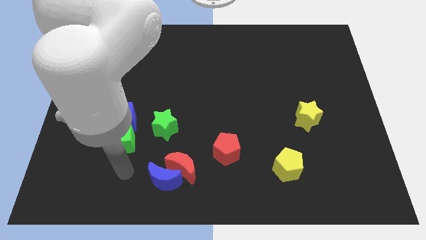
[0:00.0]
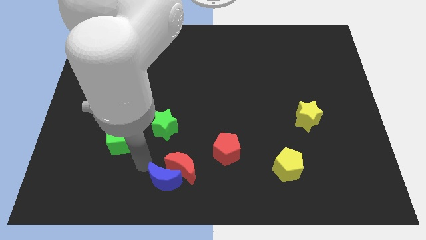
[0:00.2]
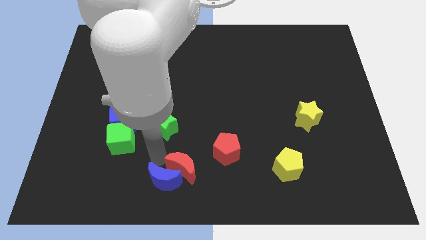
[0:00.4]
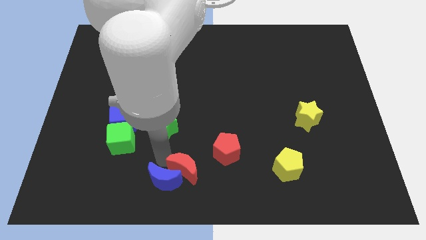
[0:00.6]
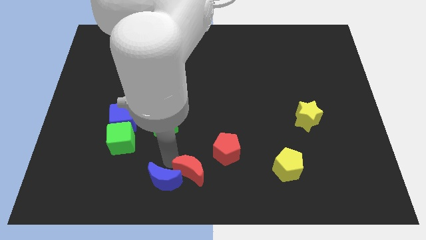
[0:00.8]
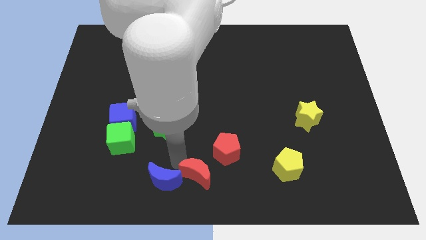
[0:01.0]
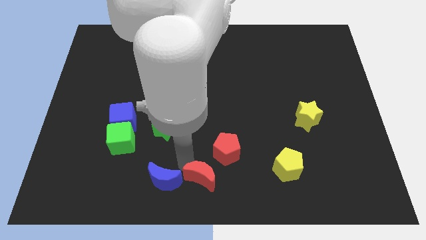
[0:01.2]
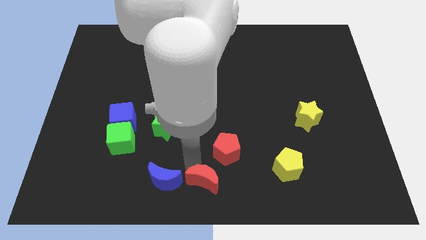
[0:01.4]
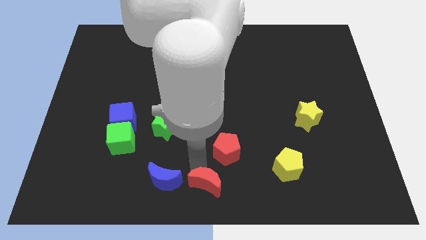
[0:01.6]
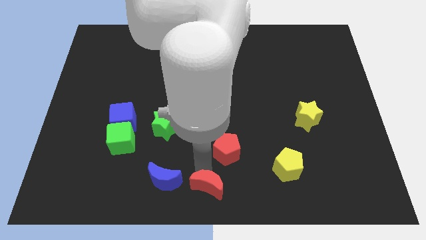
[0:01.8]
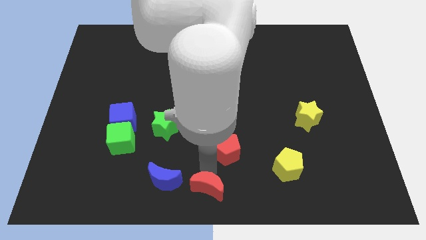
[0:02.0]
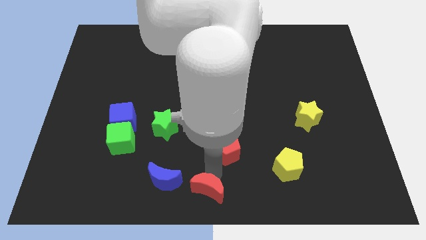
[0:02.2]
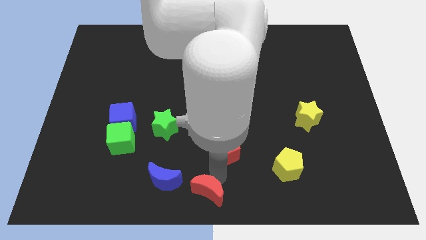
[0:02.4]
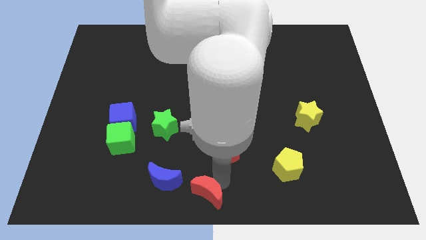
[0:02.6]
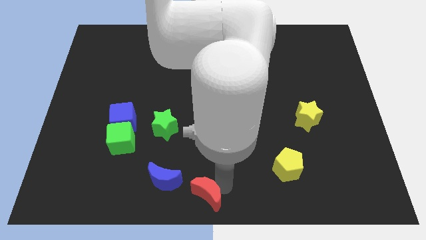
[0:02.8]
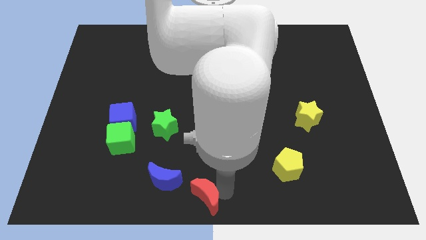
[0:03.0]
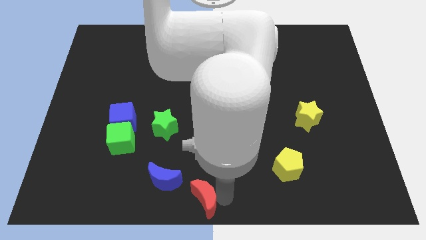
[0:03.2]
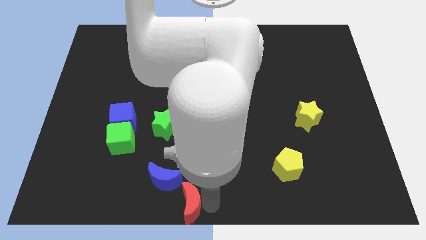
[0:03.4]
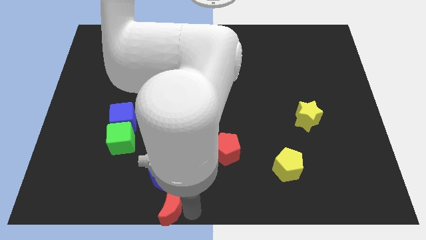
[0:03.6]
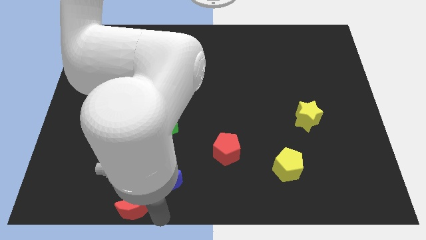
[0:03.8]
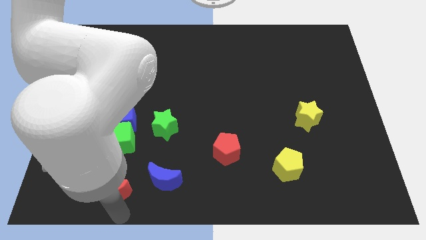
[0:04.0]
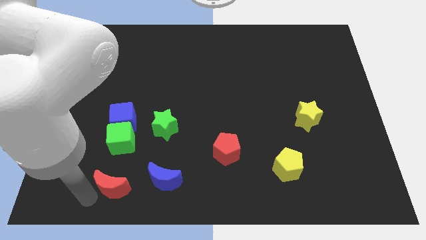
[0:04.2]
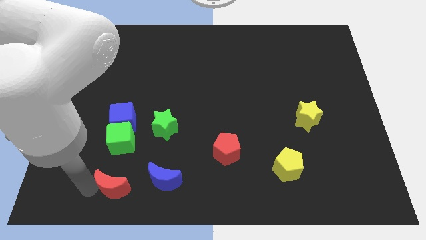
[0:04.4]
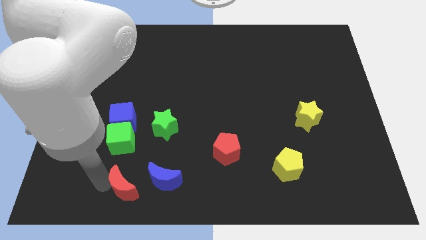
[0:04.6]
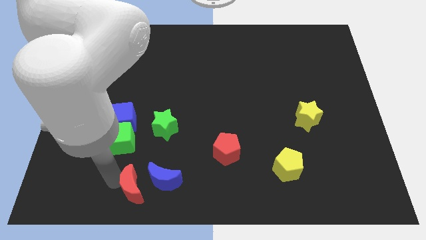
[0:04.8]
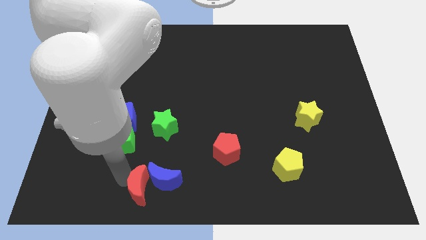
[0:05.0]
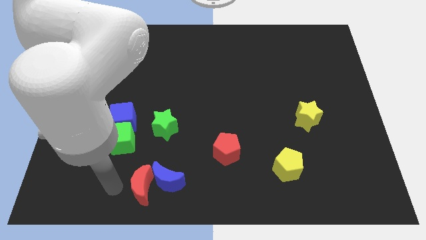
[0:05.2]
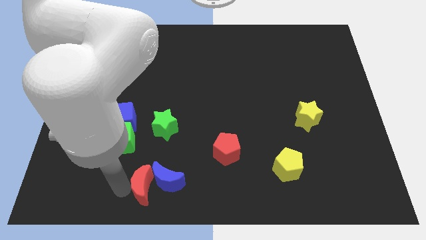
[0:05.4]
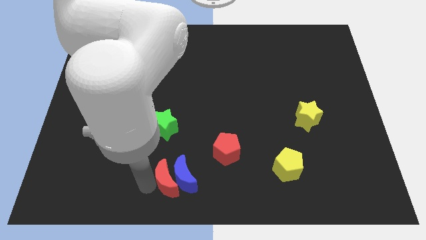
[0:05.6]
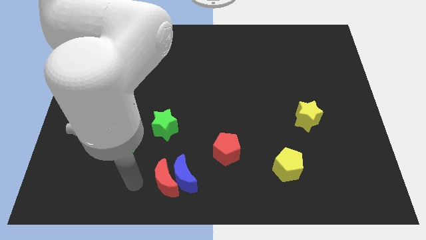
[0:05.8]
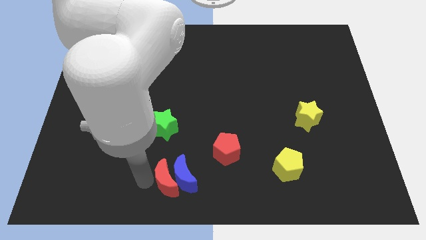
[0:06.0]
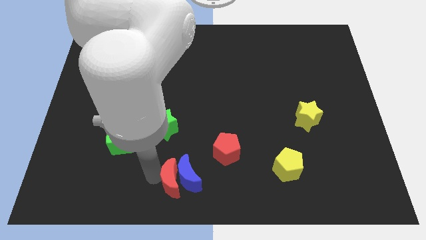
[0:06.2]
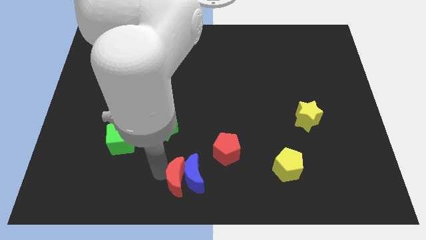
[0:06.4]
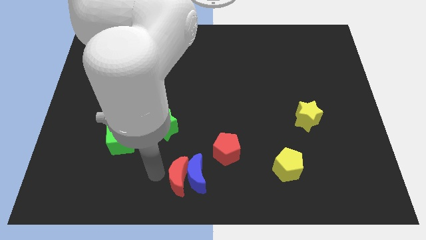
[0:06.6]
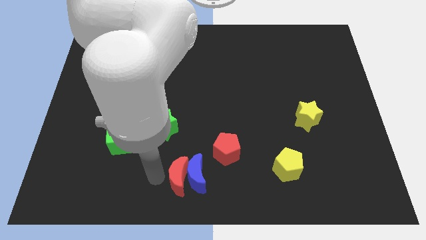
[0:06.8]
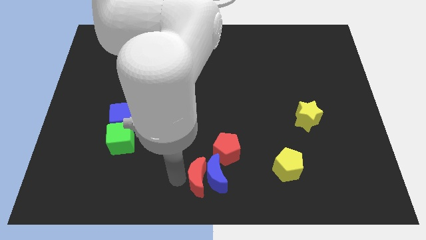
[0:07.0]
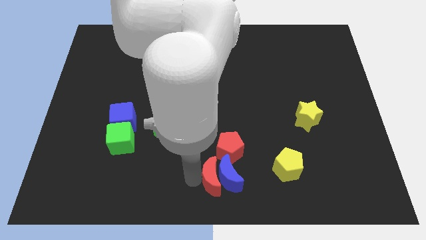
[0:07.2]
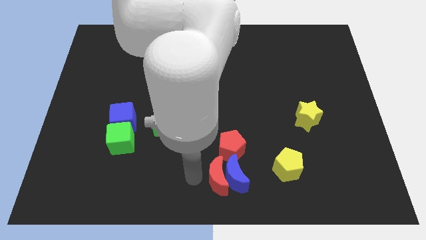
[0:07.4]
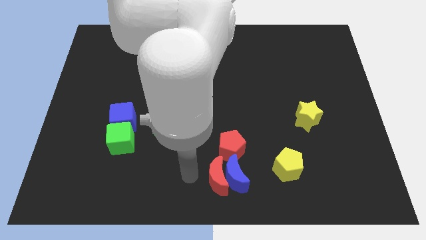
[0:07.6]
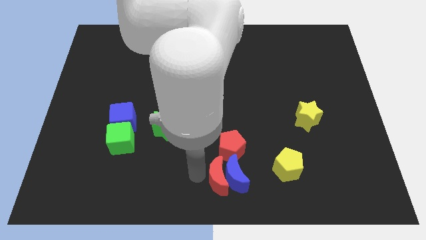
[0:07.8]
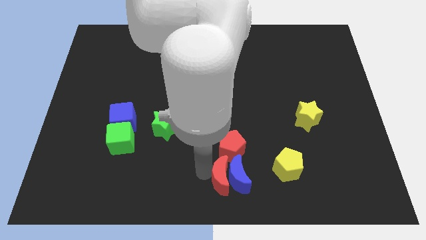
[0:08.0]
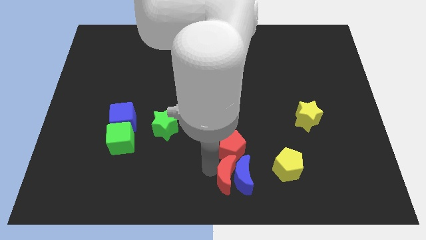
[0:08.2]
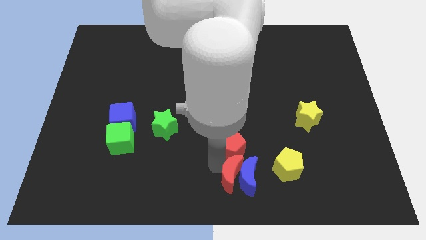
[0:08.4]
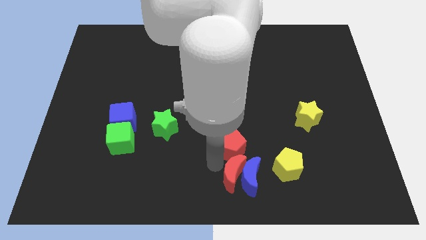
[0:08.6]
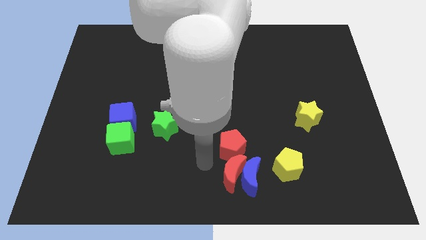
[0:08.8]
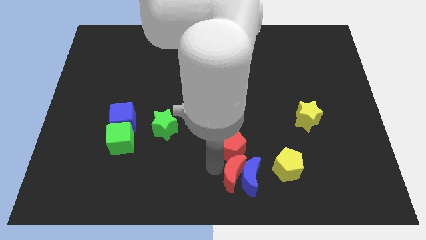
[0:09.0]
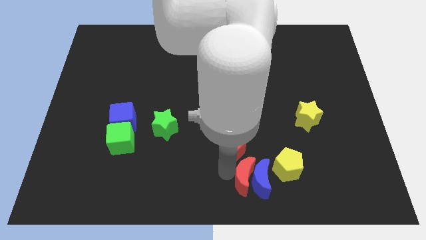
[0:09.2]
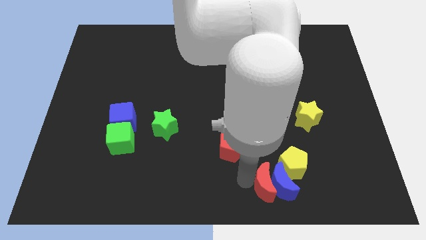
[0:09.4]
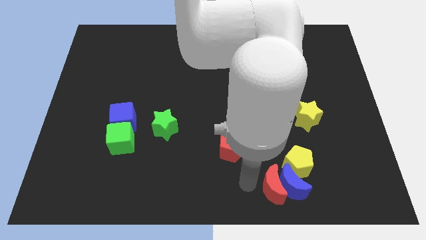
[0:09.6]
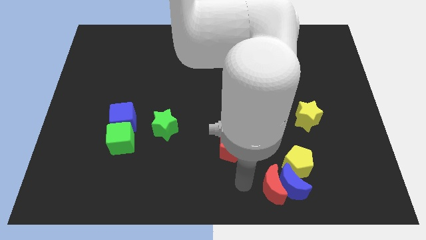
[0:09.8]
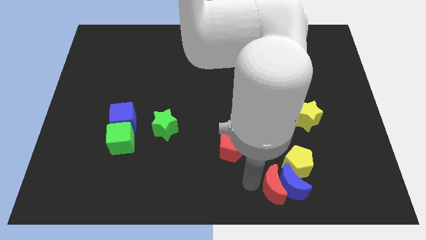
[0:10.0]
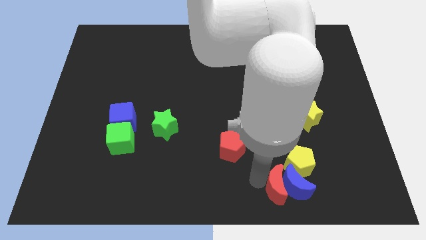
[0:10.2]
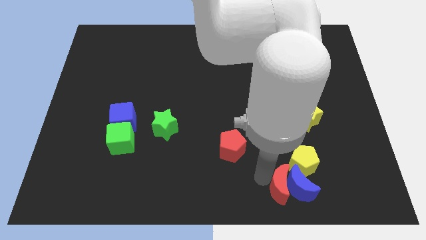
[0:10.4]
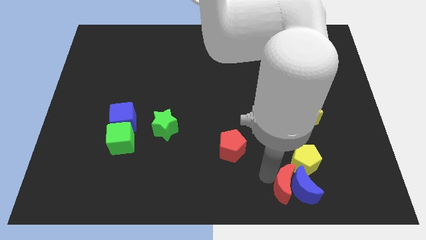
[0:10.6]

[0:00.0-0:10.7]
move the red moon to the right

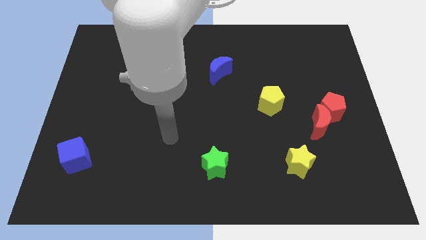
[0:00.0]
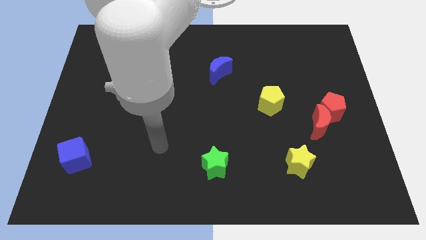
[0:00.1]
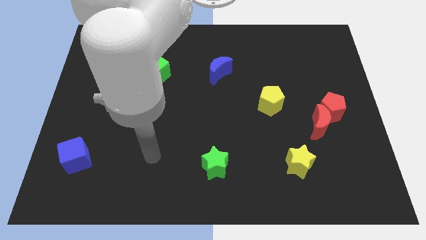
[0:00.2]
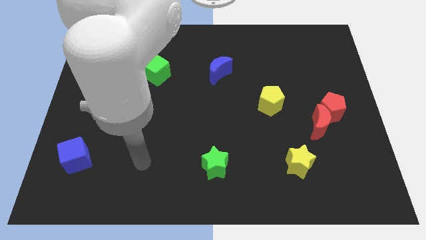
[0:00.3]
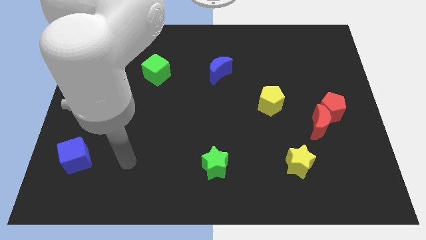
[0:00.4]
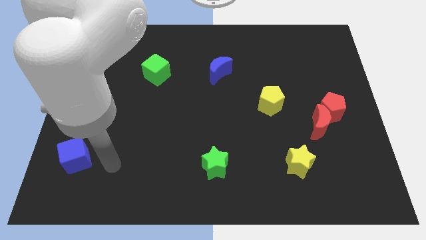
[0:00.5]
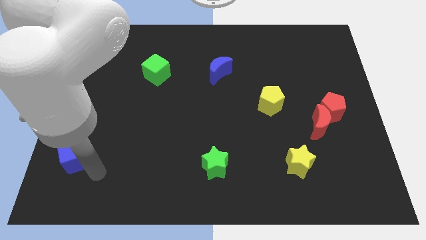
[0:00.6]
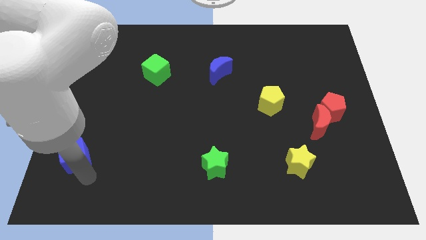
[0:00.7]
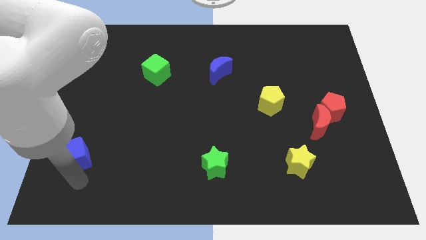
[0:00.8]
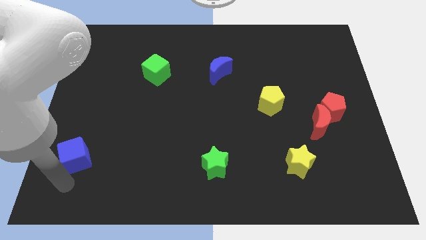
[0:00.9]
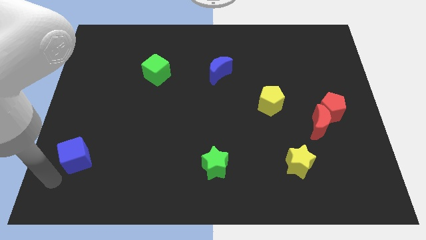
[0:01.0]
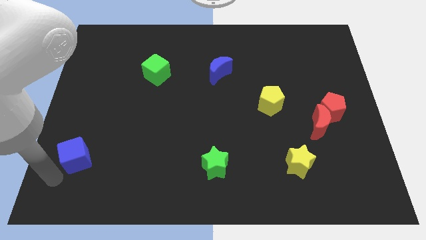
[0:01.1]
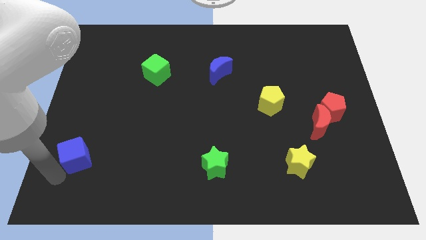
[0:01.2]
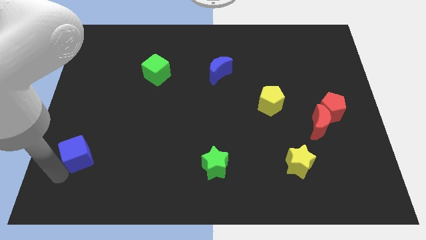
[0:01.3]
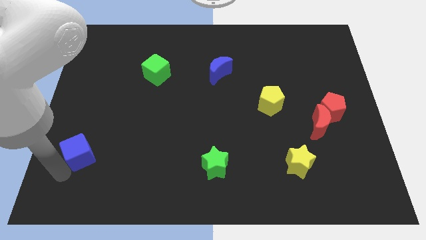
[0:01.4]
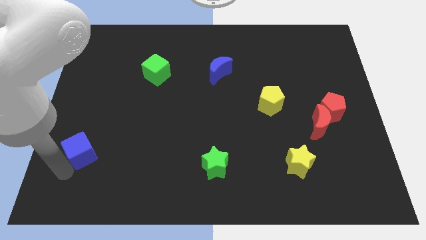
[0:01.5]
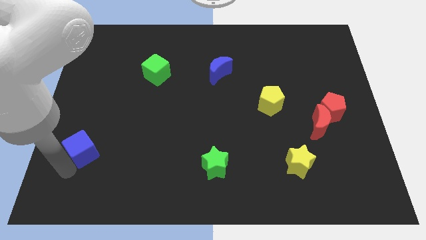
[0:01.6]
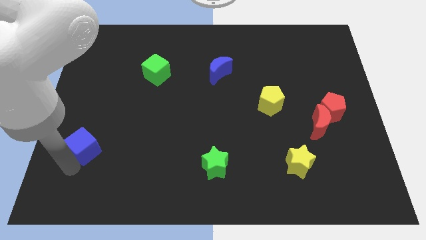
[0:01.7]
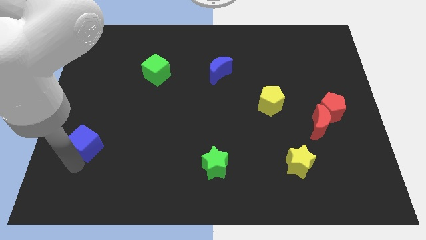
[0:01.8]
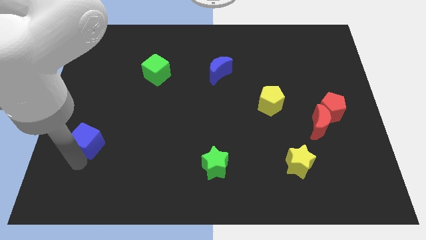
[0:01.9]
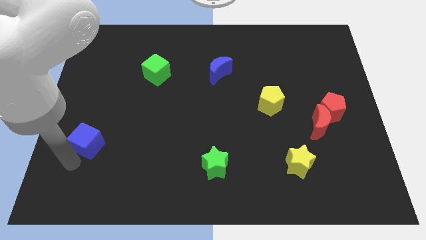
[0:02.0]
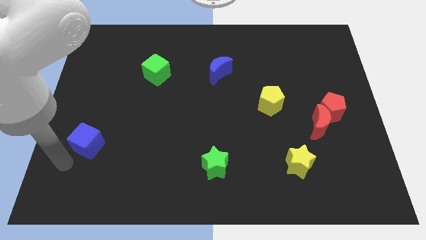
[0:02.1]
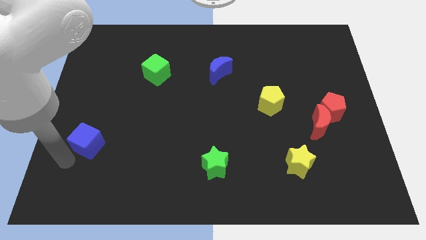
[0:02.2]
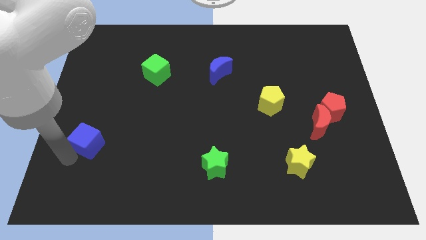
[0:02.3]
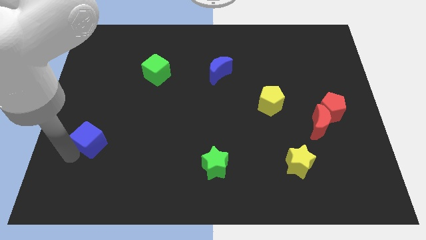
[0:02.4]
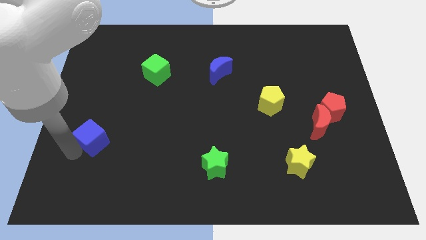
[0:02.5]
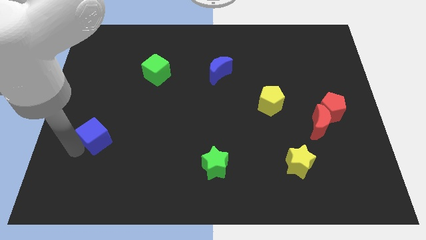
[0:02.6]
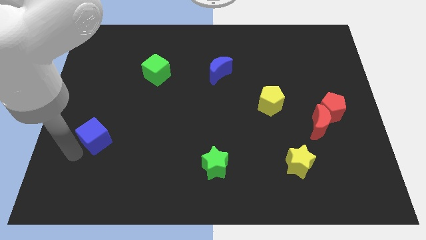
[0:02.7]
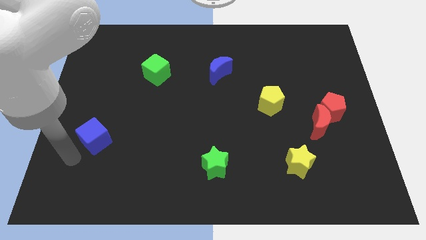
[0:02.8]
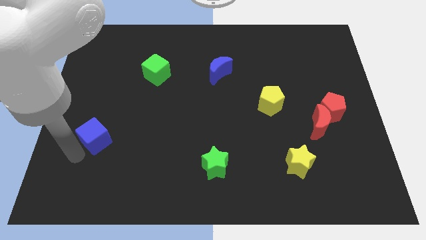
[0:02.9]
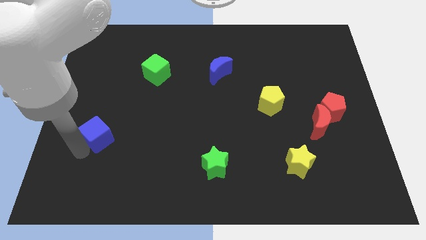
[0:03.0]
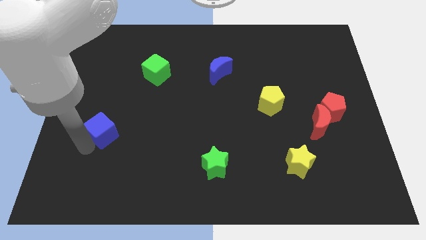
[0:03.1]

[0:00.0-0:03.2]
push the blue cube upwards and then to the right a little bit
